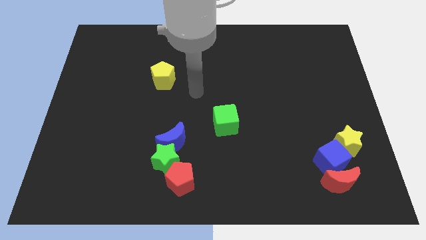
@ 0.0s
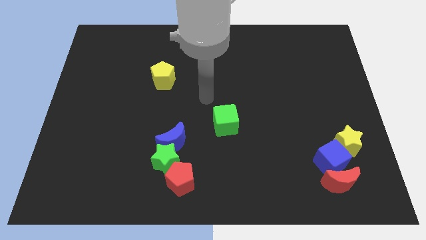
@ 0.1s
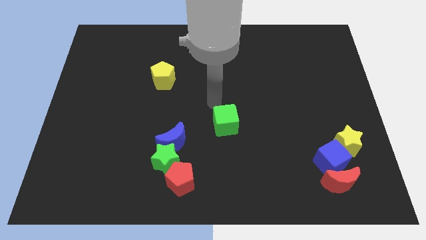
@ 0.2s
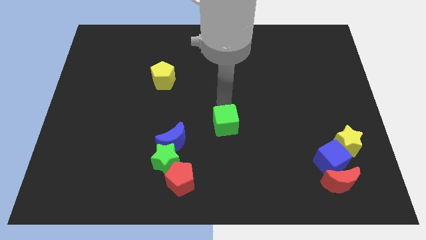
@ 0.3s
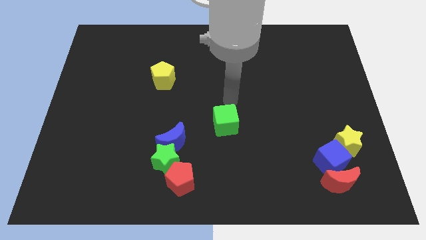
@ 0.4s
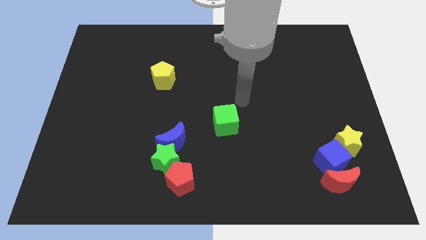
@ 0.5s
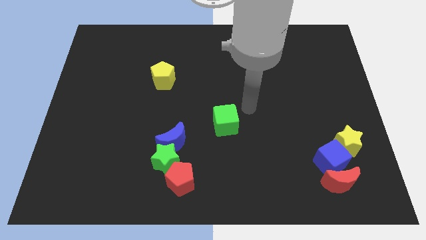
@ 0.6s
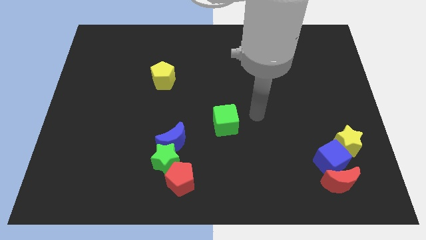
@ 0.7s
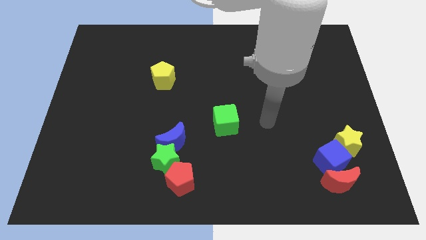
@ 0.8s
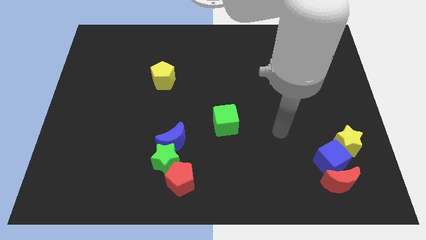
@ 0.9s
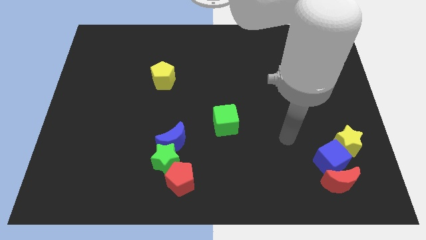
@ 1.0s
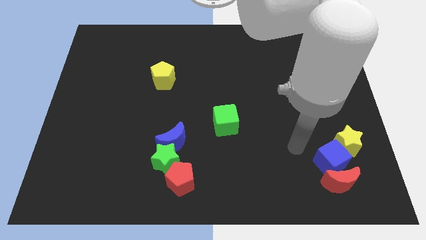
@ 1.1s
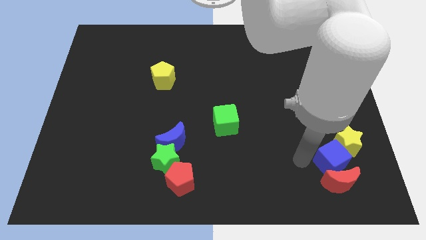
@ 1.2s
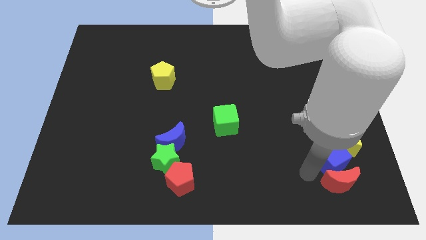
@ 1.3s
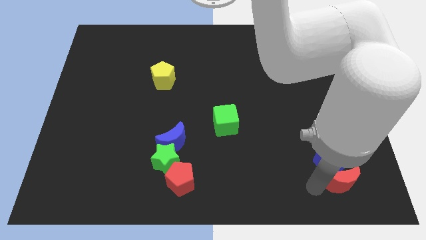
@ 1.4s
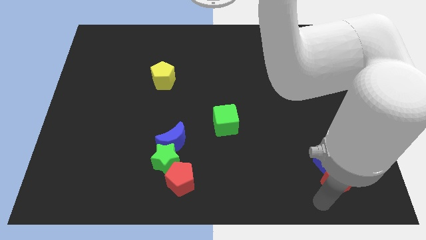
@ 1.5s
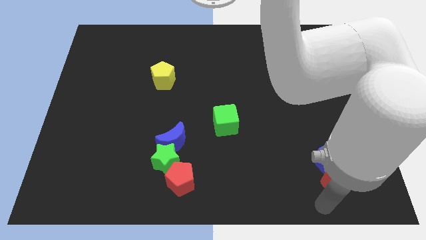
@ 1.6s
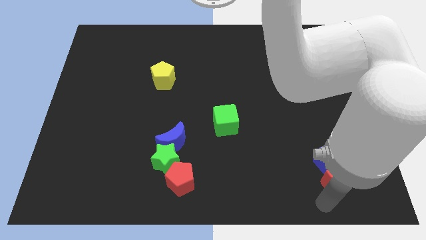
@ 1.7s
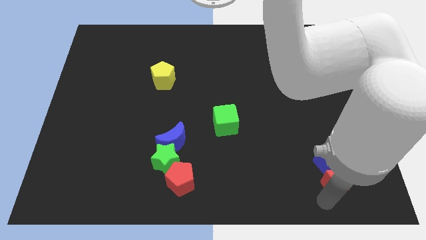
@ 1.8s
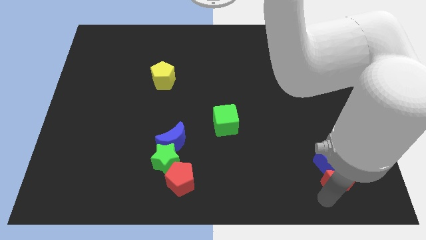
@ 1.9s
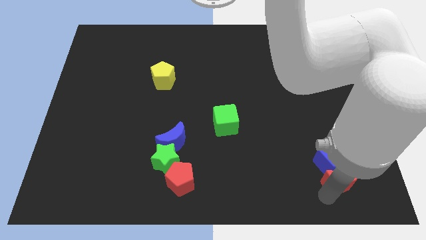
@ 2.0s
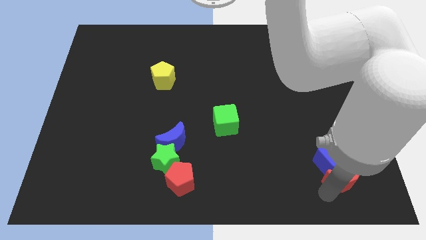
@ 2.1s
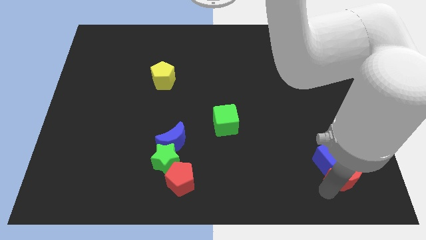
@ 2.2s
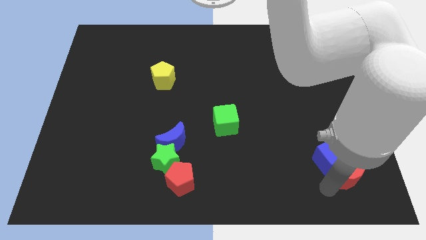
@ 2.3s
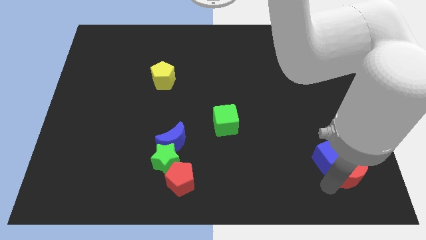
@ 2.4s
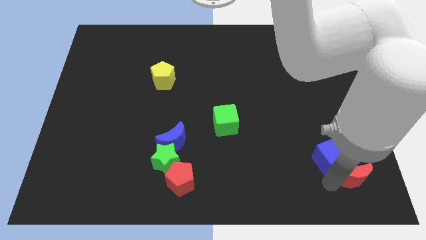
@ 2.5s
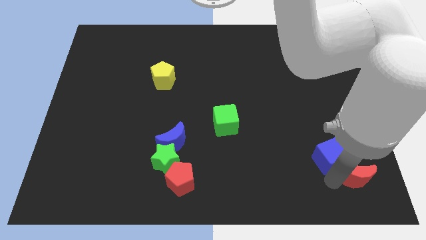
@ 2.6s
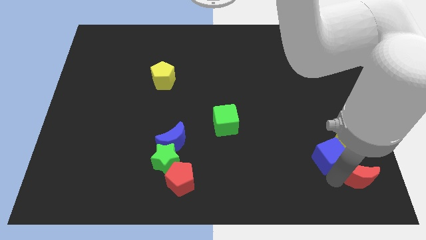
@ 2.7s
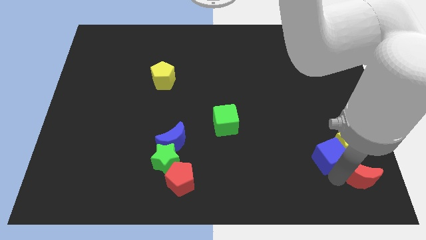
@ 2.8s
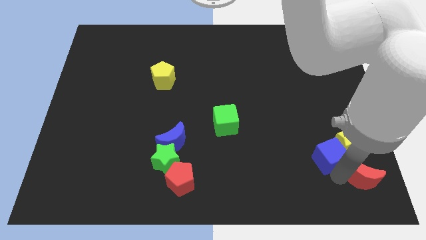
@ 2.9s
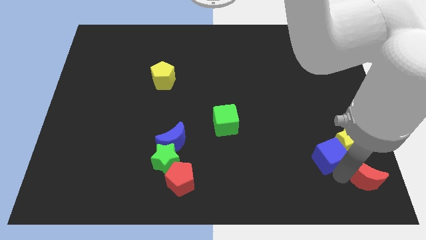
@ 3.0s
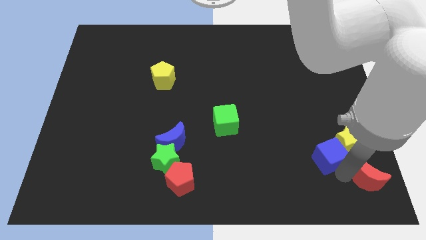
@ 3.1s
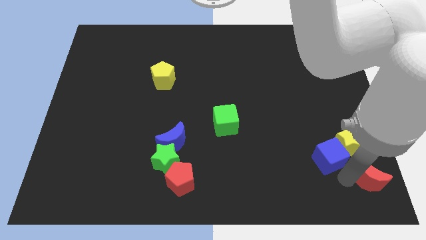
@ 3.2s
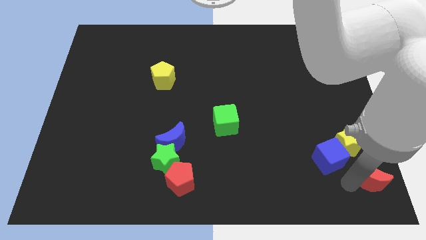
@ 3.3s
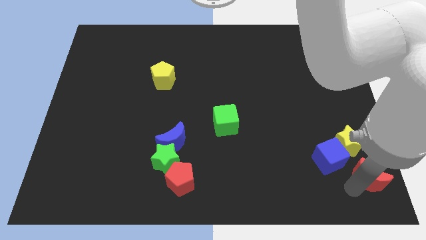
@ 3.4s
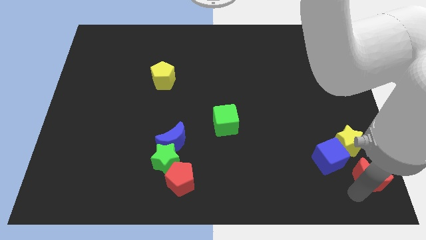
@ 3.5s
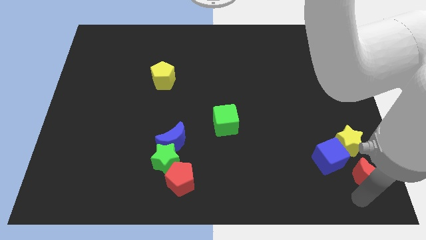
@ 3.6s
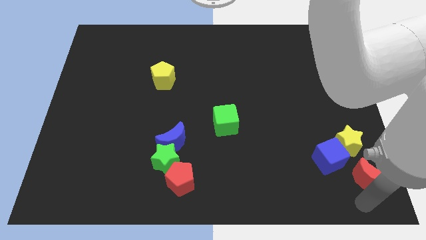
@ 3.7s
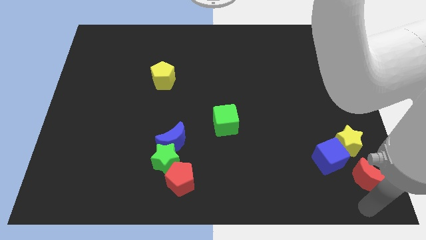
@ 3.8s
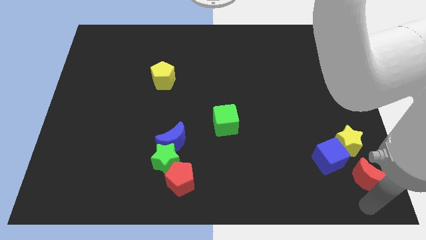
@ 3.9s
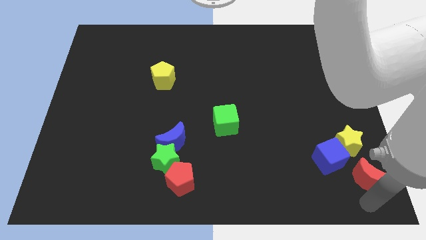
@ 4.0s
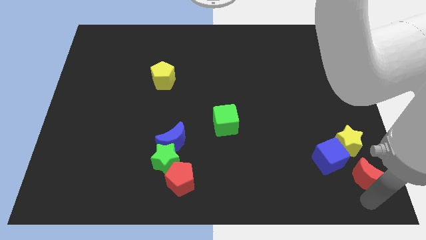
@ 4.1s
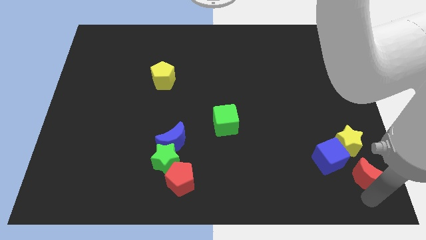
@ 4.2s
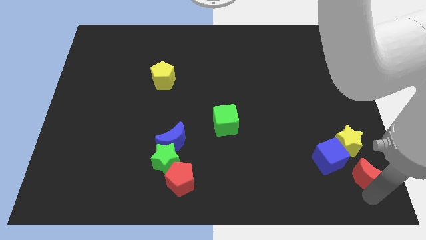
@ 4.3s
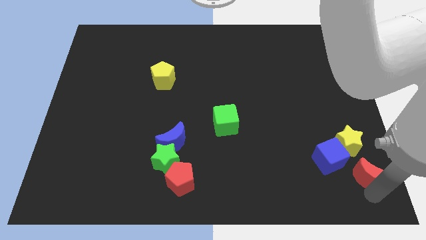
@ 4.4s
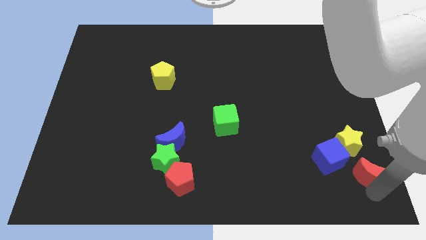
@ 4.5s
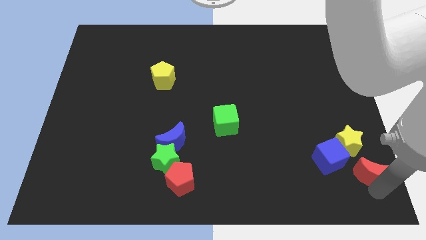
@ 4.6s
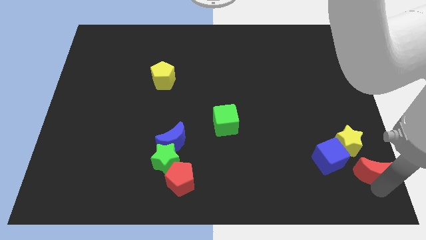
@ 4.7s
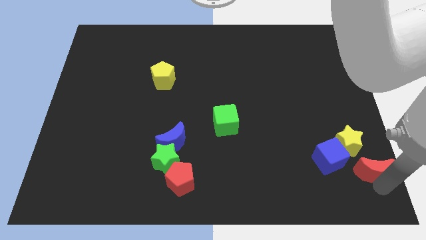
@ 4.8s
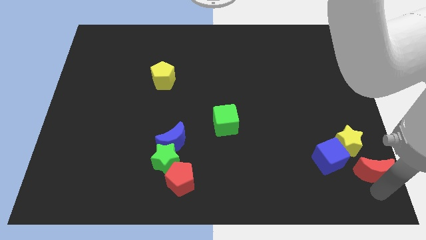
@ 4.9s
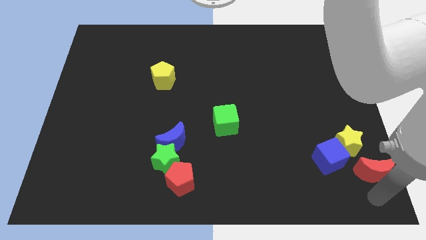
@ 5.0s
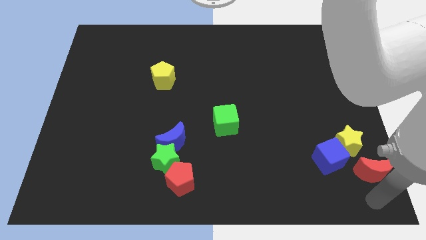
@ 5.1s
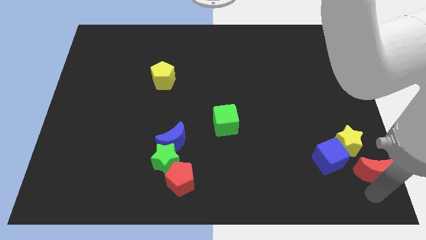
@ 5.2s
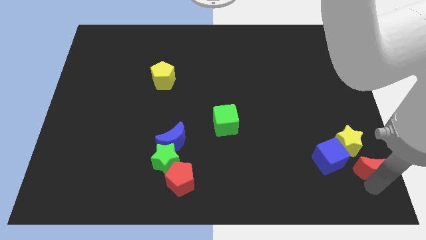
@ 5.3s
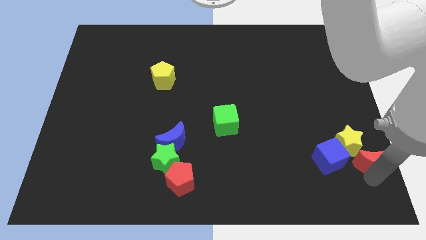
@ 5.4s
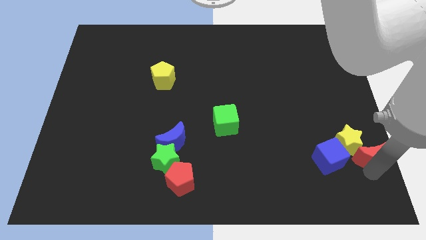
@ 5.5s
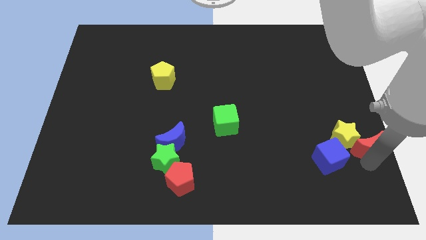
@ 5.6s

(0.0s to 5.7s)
put the red moon to the center right

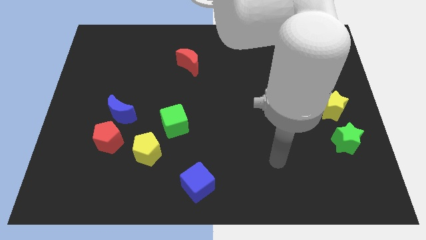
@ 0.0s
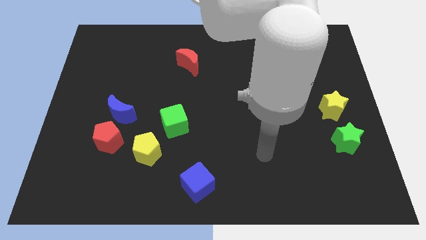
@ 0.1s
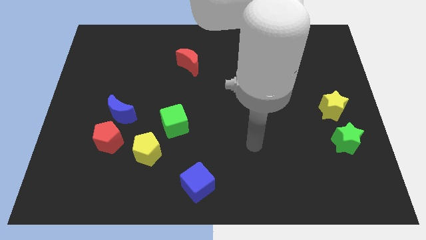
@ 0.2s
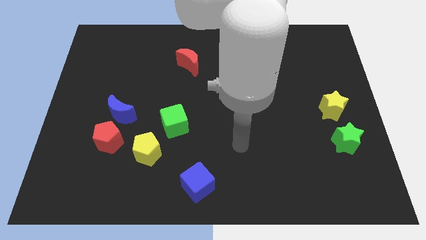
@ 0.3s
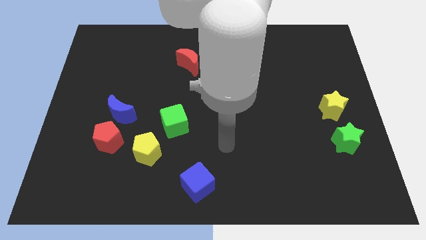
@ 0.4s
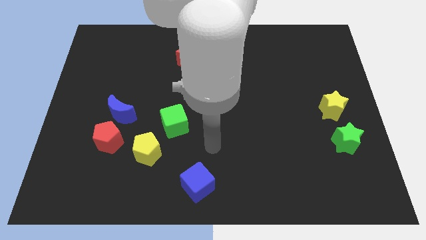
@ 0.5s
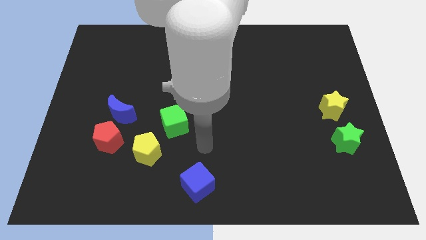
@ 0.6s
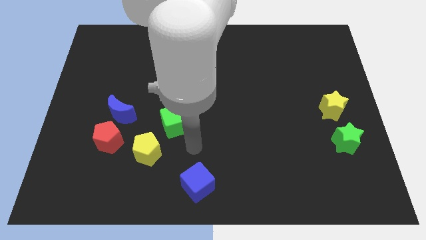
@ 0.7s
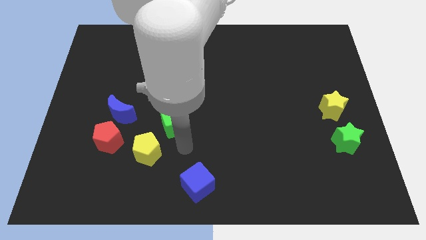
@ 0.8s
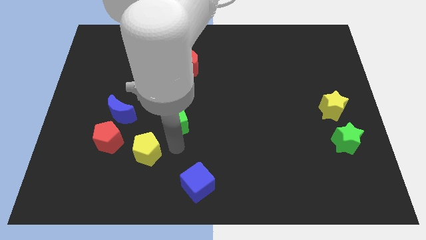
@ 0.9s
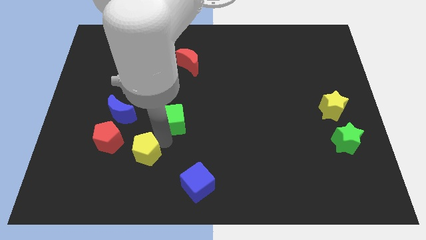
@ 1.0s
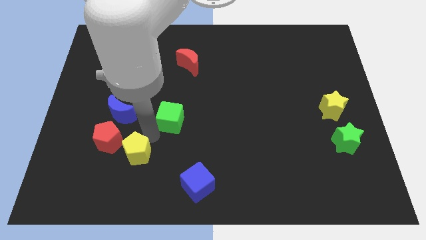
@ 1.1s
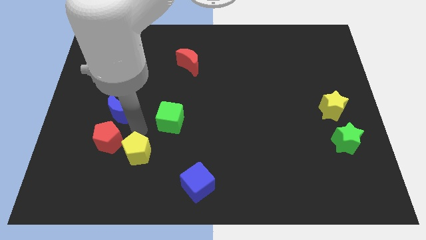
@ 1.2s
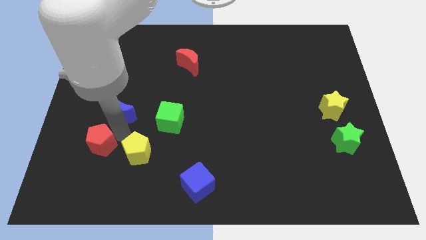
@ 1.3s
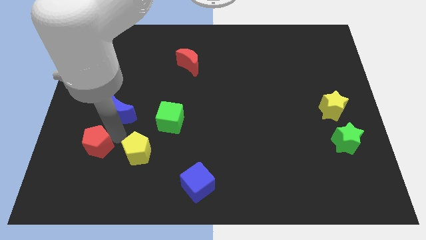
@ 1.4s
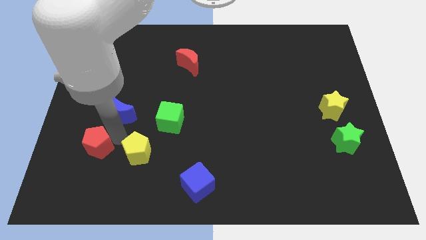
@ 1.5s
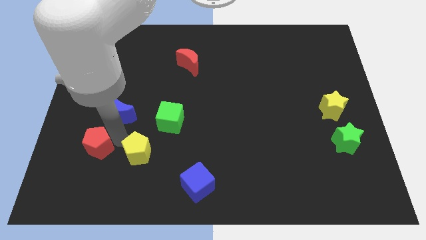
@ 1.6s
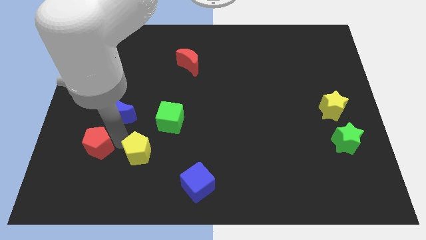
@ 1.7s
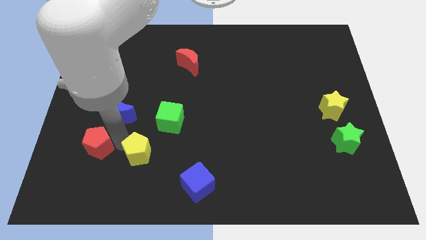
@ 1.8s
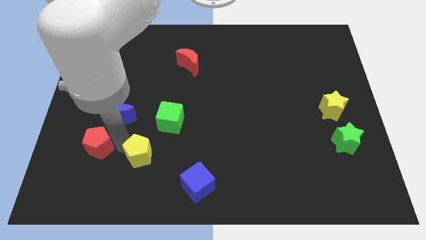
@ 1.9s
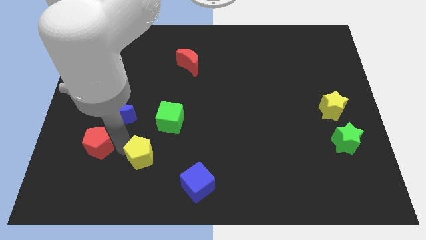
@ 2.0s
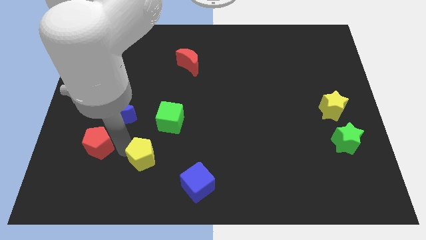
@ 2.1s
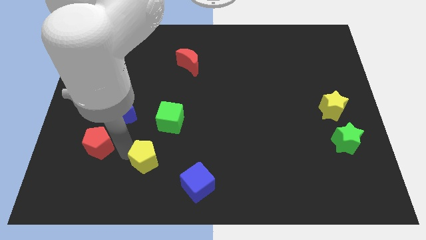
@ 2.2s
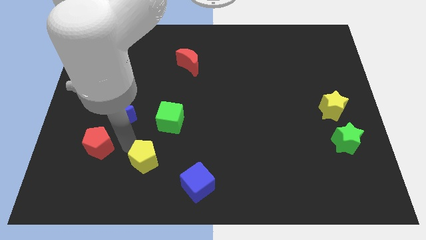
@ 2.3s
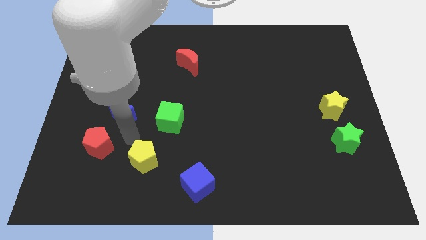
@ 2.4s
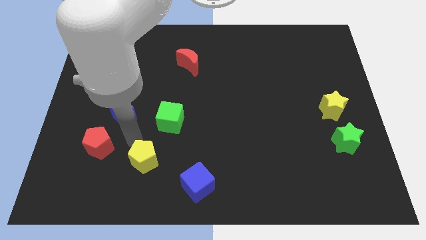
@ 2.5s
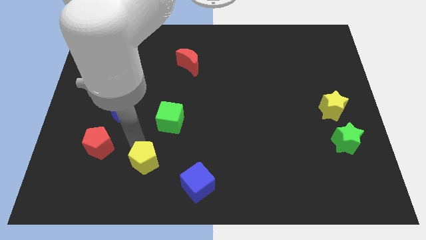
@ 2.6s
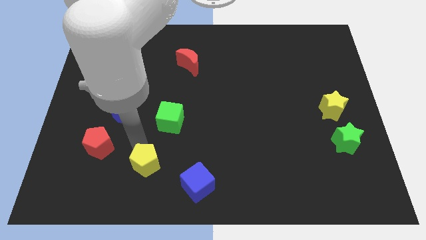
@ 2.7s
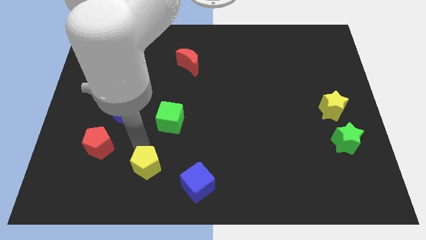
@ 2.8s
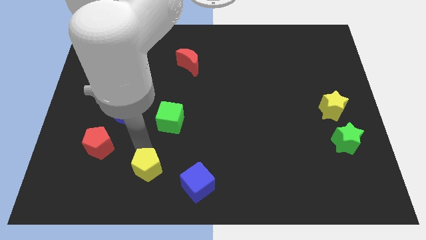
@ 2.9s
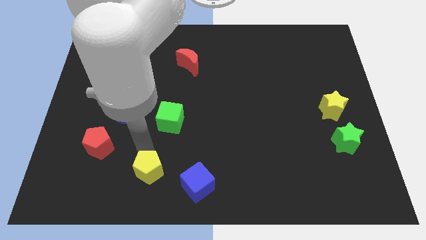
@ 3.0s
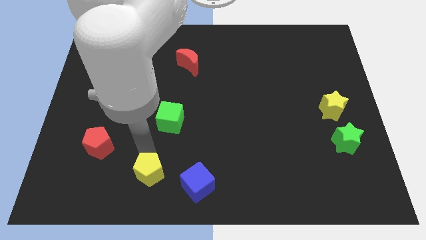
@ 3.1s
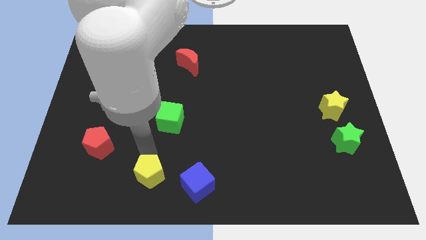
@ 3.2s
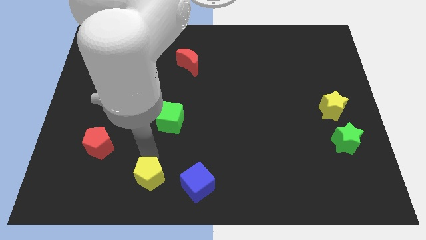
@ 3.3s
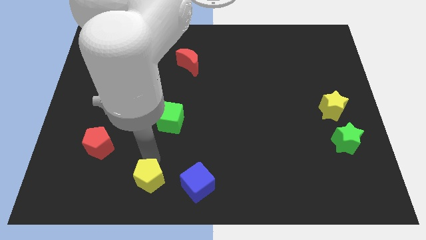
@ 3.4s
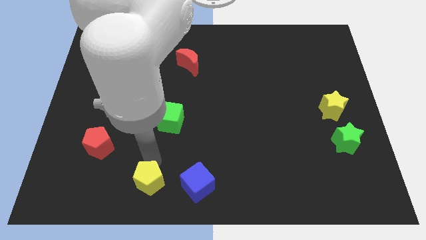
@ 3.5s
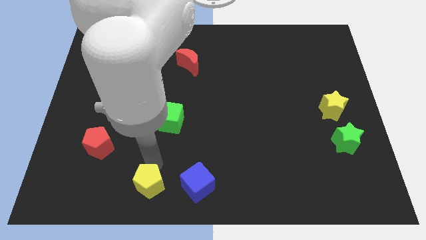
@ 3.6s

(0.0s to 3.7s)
put the yellow pentagon to the bottom side
